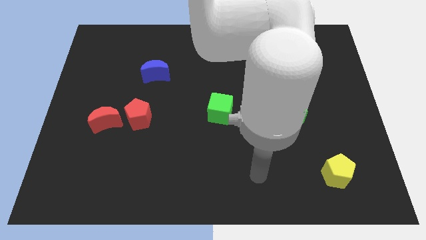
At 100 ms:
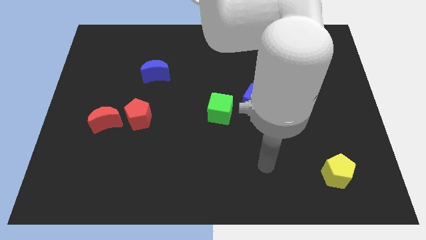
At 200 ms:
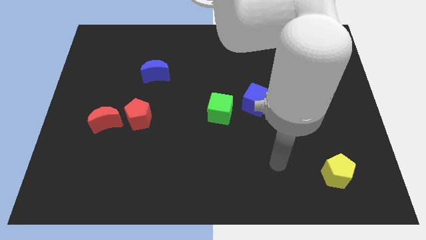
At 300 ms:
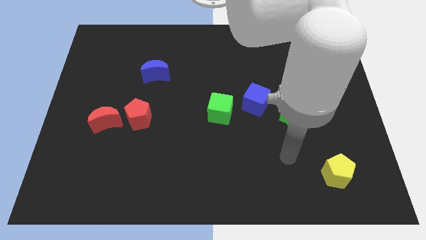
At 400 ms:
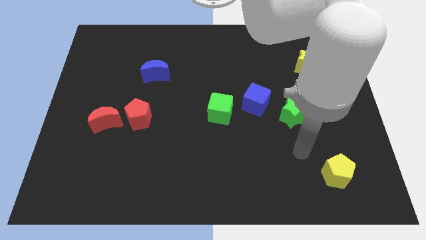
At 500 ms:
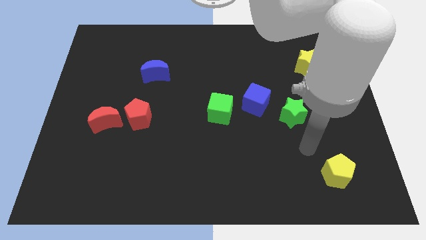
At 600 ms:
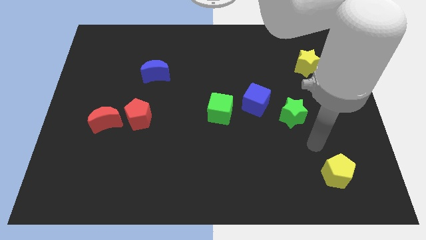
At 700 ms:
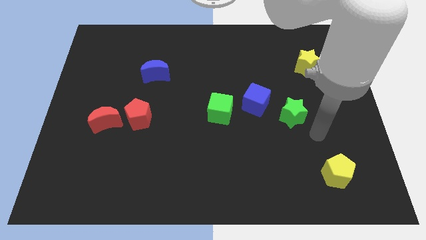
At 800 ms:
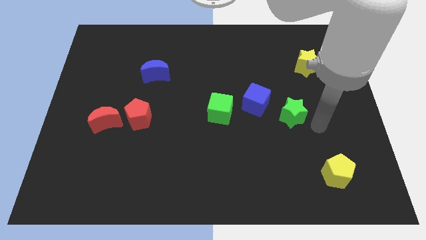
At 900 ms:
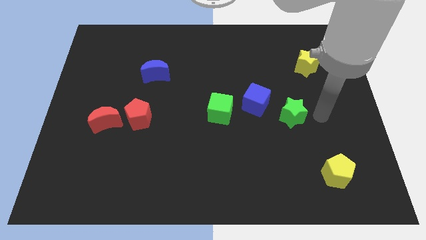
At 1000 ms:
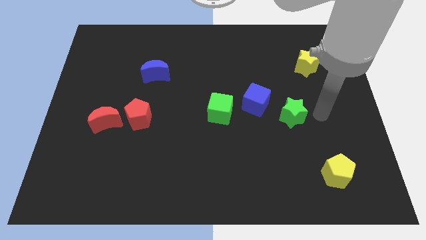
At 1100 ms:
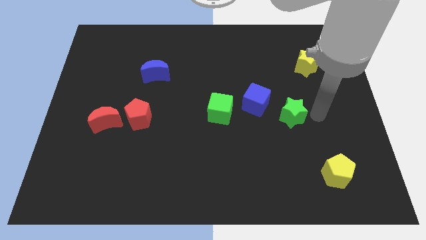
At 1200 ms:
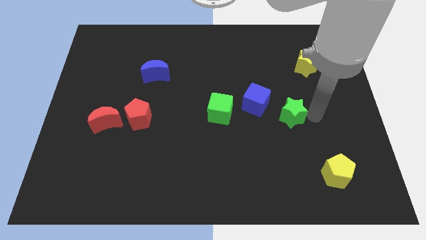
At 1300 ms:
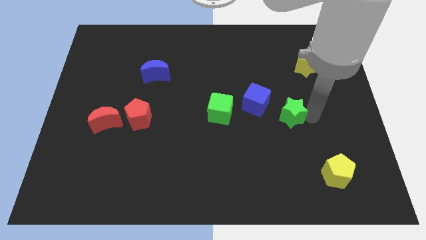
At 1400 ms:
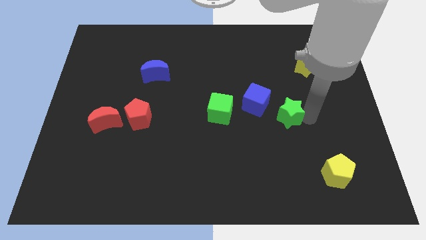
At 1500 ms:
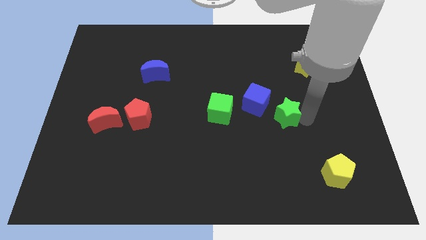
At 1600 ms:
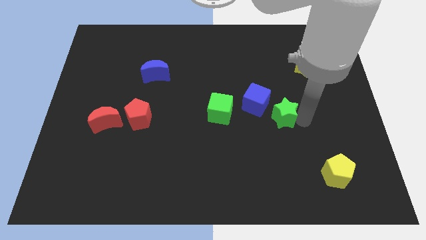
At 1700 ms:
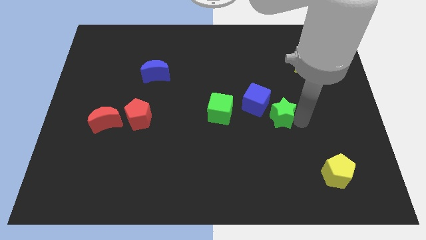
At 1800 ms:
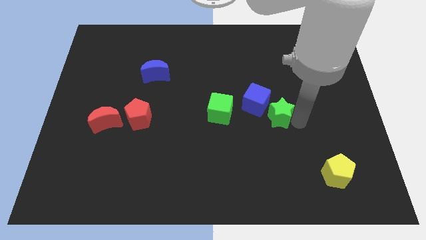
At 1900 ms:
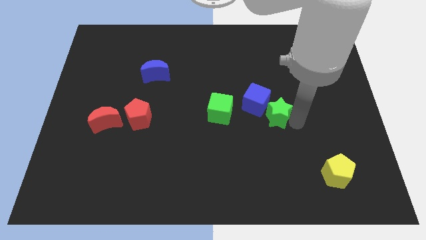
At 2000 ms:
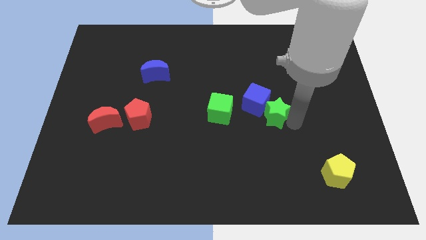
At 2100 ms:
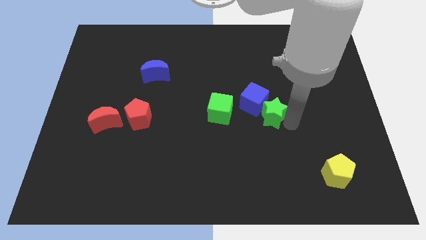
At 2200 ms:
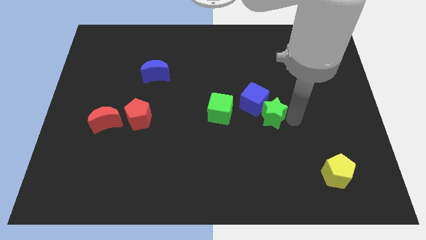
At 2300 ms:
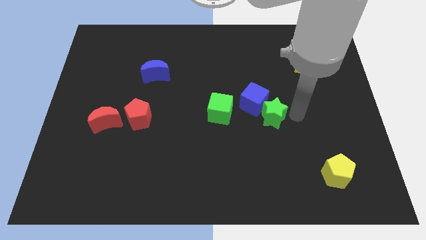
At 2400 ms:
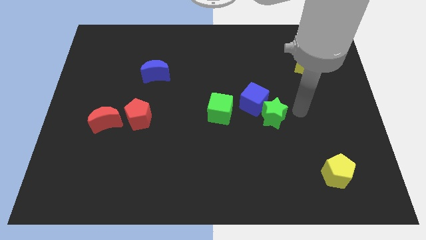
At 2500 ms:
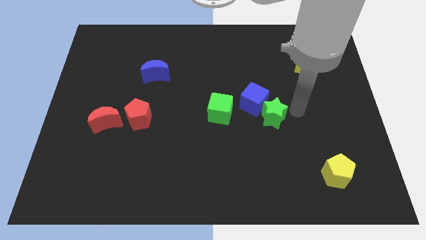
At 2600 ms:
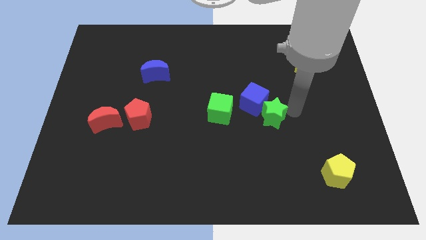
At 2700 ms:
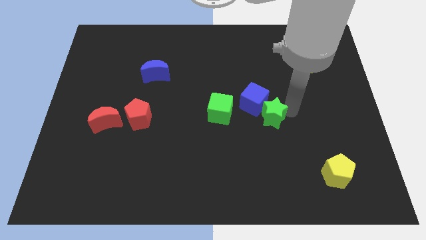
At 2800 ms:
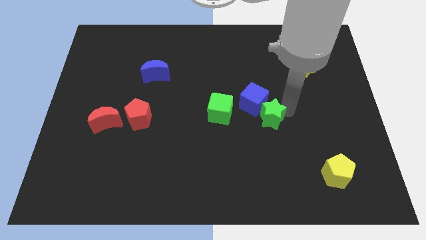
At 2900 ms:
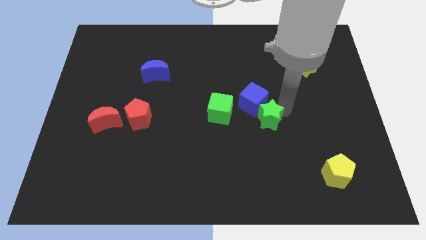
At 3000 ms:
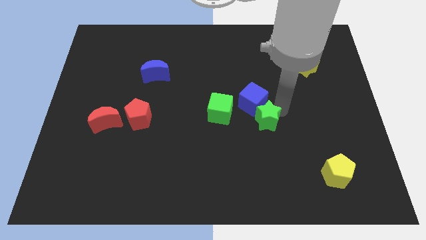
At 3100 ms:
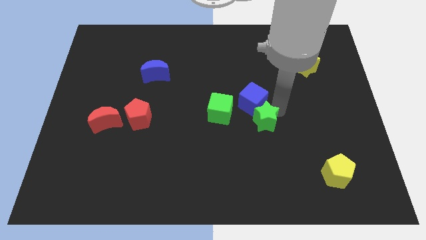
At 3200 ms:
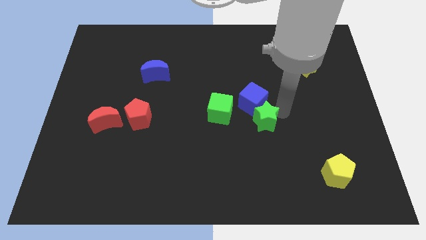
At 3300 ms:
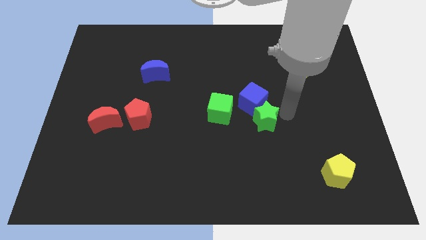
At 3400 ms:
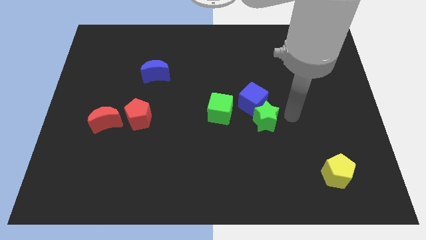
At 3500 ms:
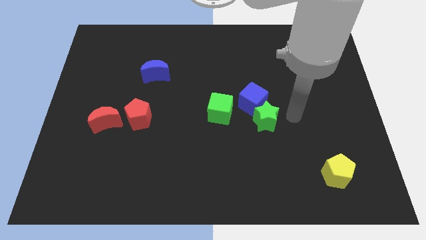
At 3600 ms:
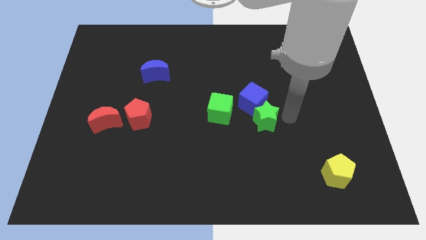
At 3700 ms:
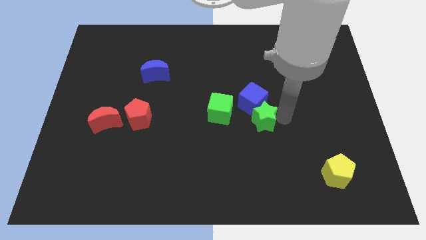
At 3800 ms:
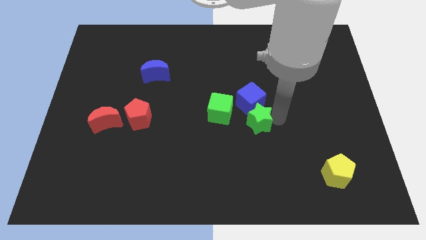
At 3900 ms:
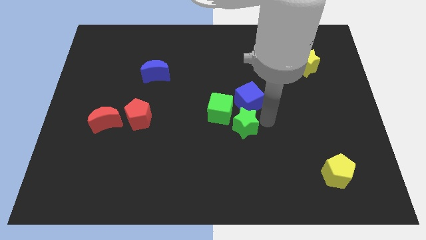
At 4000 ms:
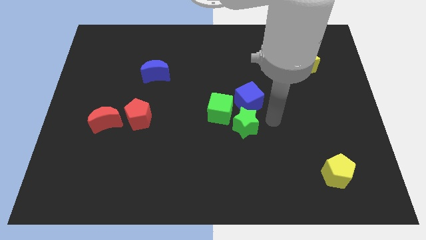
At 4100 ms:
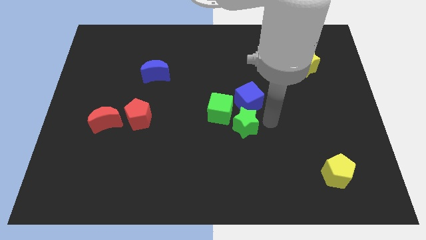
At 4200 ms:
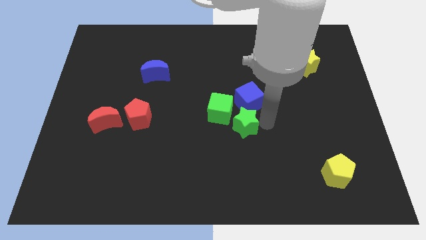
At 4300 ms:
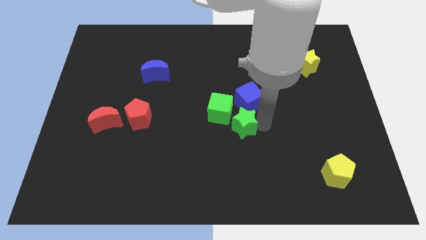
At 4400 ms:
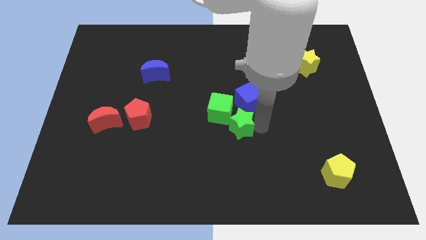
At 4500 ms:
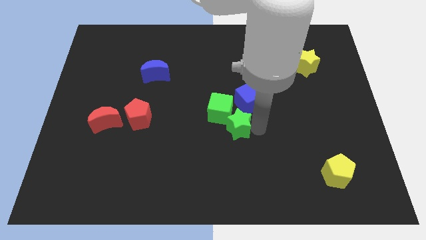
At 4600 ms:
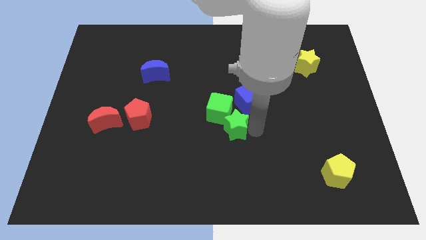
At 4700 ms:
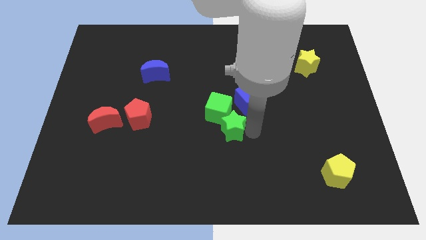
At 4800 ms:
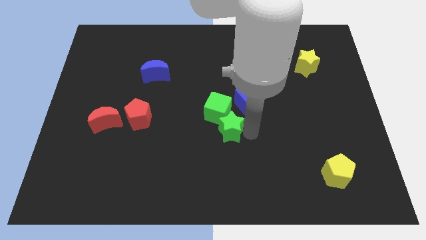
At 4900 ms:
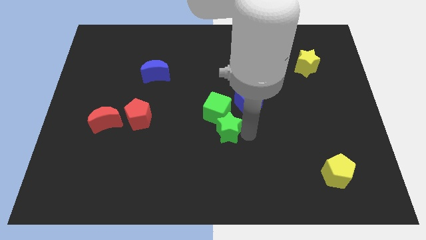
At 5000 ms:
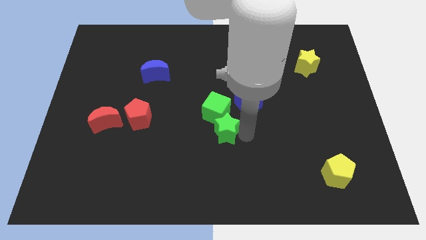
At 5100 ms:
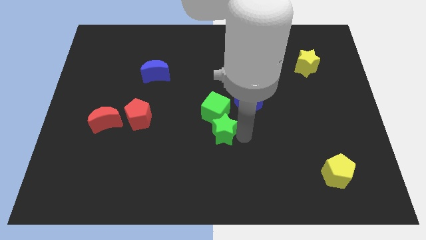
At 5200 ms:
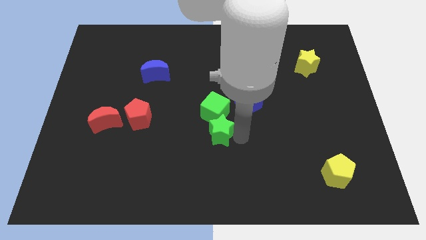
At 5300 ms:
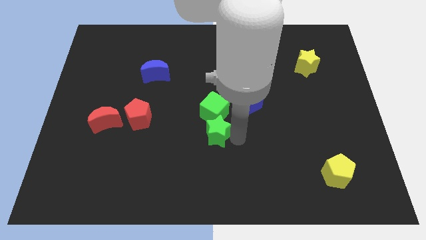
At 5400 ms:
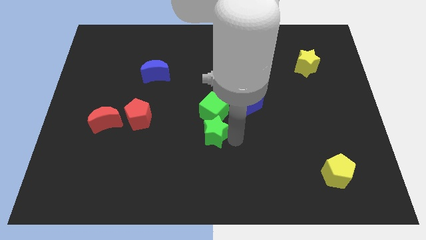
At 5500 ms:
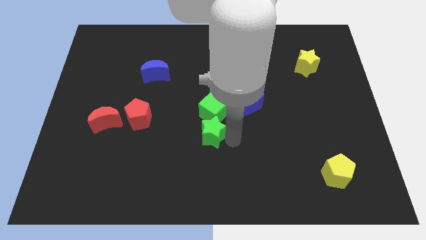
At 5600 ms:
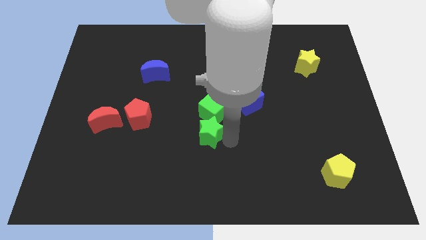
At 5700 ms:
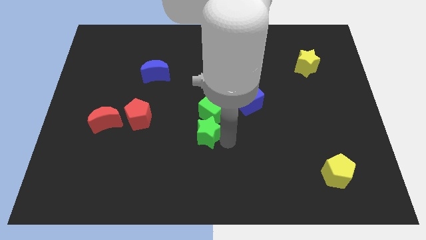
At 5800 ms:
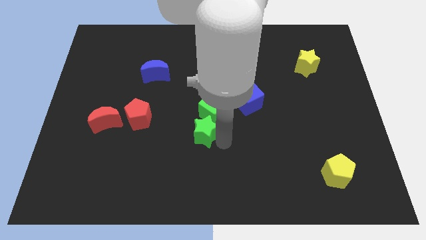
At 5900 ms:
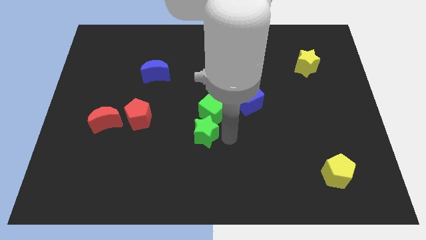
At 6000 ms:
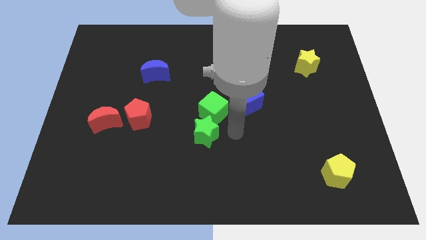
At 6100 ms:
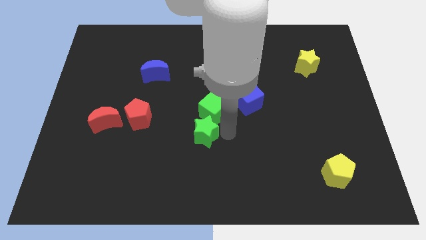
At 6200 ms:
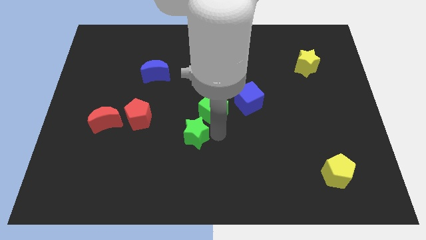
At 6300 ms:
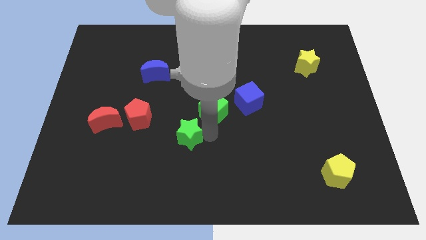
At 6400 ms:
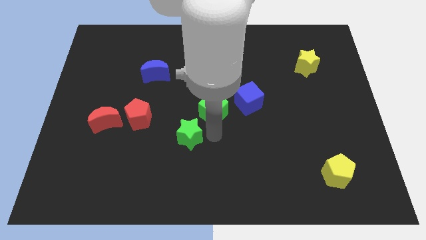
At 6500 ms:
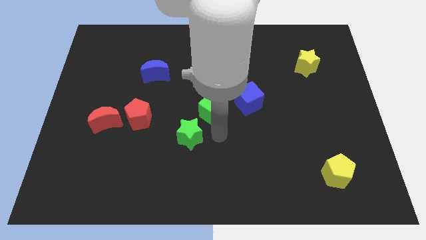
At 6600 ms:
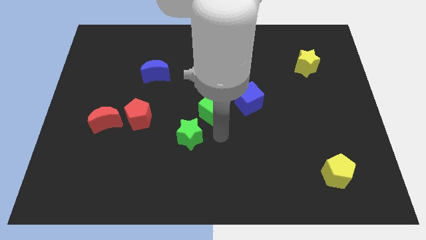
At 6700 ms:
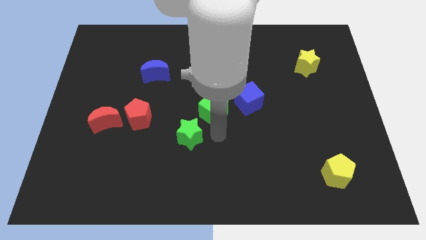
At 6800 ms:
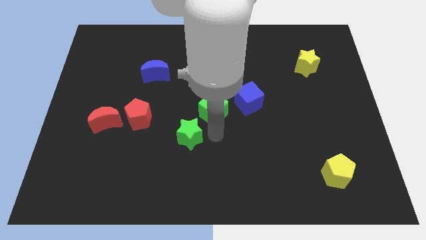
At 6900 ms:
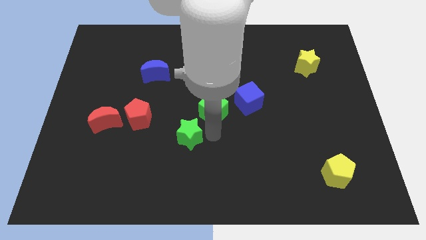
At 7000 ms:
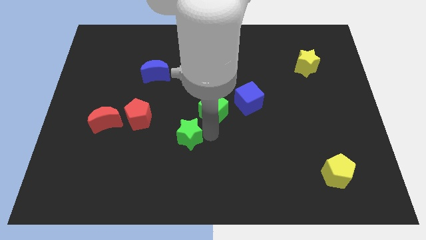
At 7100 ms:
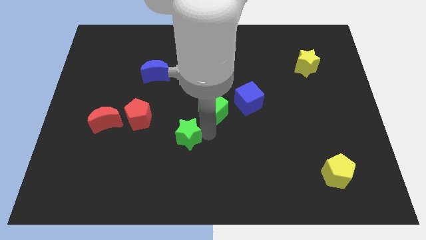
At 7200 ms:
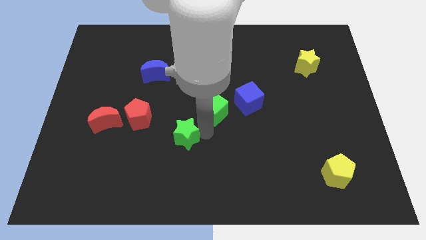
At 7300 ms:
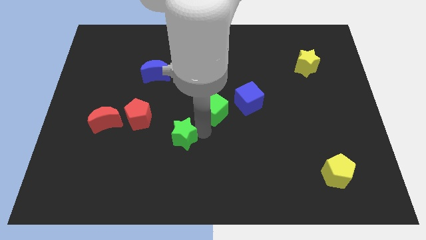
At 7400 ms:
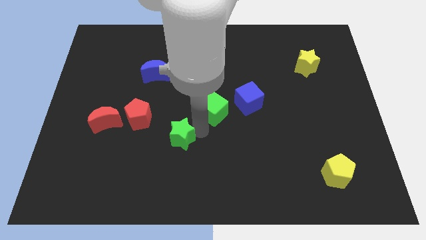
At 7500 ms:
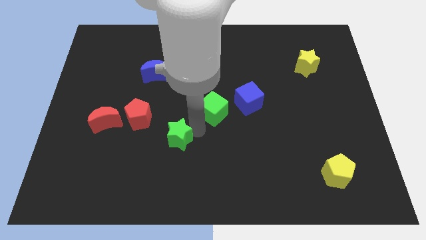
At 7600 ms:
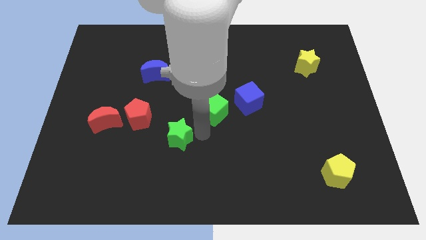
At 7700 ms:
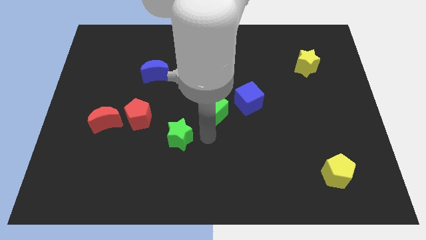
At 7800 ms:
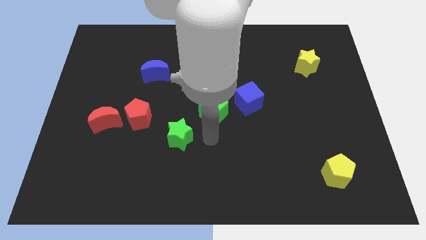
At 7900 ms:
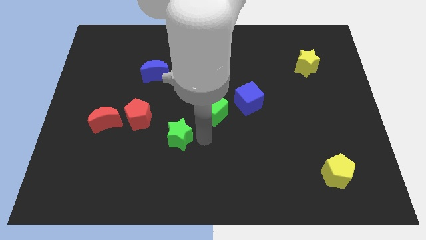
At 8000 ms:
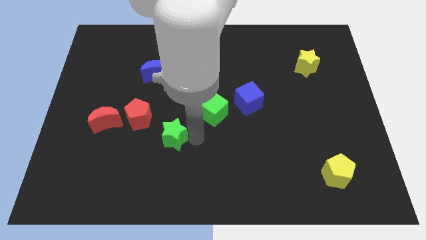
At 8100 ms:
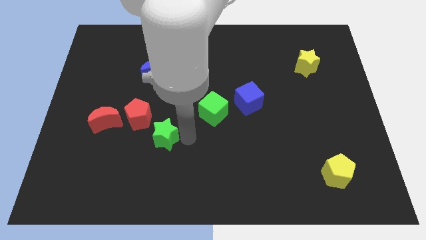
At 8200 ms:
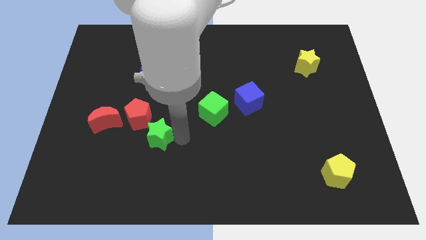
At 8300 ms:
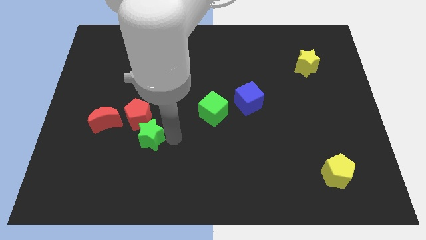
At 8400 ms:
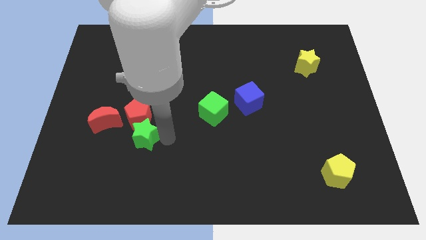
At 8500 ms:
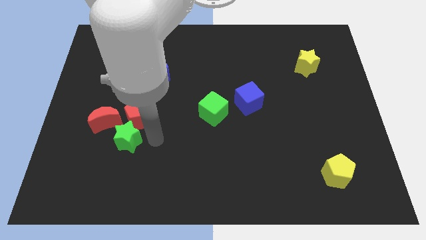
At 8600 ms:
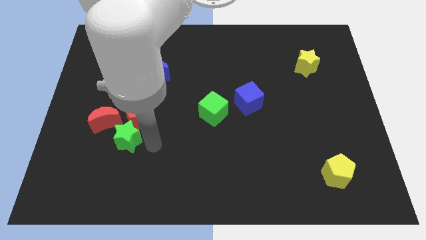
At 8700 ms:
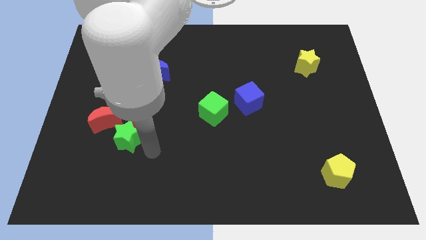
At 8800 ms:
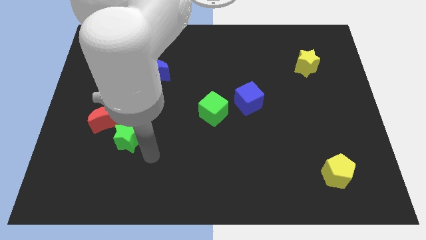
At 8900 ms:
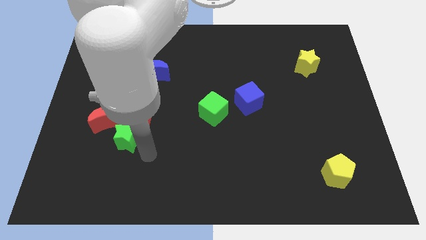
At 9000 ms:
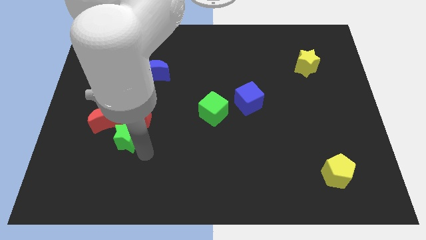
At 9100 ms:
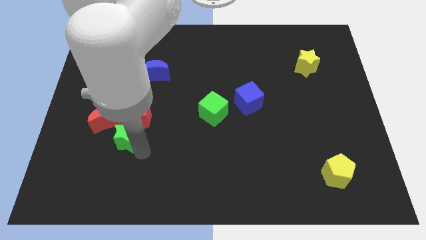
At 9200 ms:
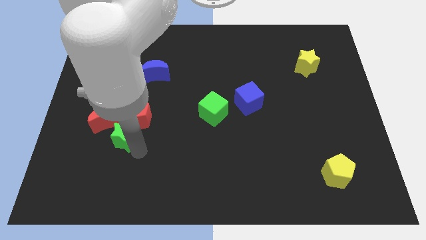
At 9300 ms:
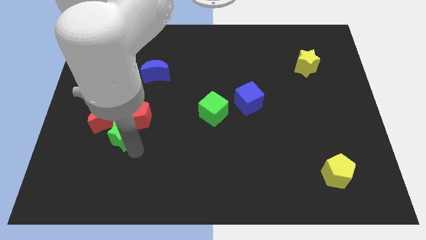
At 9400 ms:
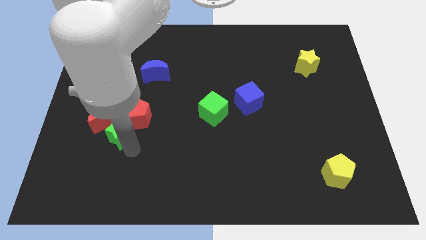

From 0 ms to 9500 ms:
slide the green star close to the red moon
